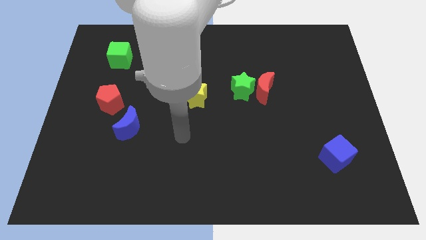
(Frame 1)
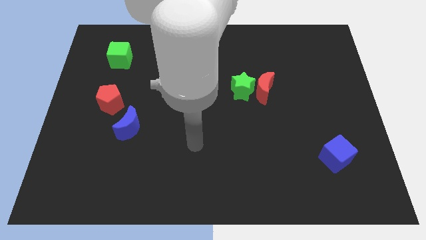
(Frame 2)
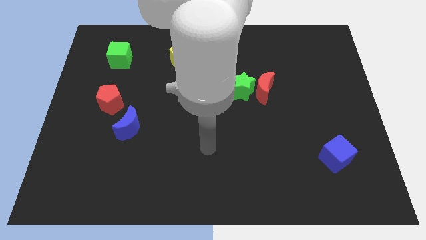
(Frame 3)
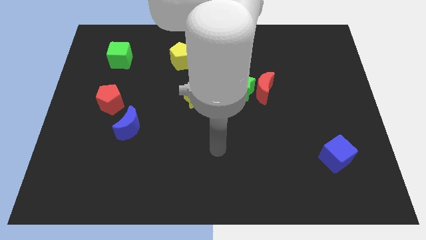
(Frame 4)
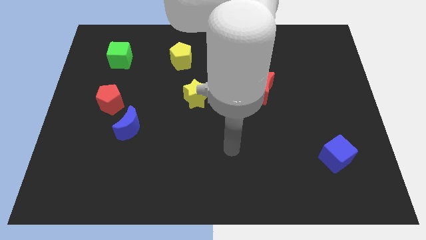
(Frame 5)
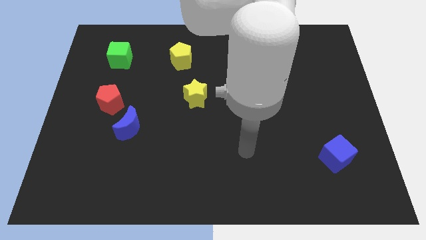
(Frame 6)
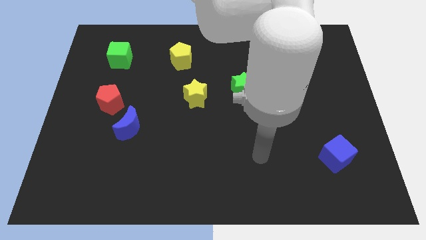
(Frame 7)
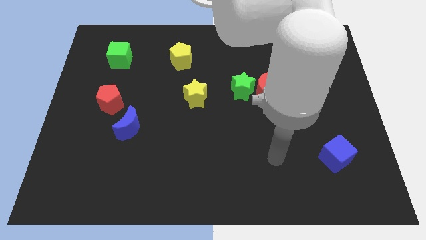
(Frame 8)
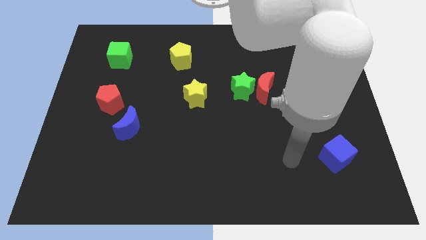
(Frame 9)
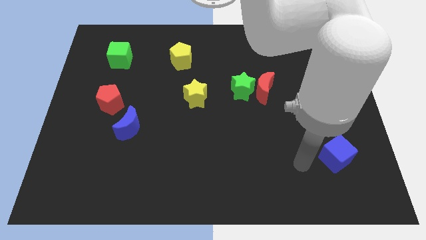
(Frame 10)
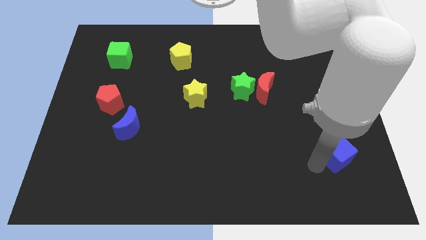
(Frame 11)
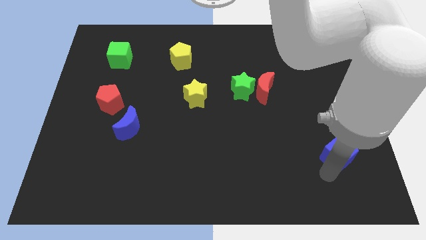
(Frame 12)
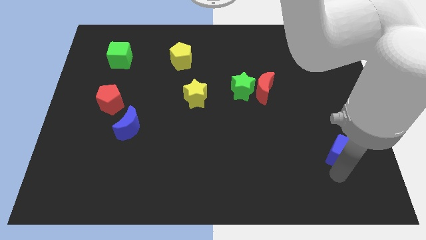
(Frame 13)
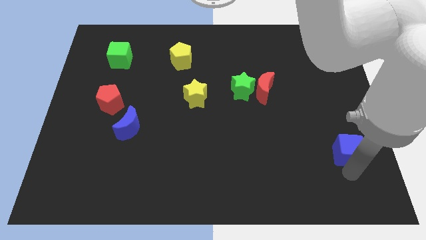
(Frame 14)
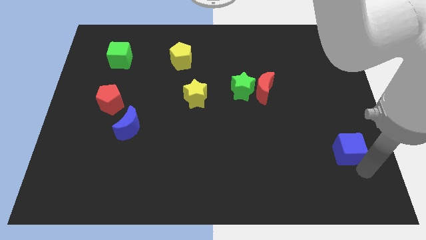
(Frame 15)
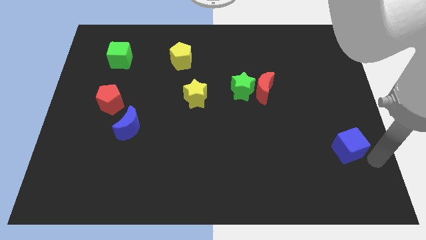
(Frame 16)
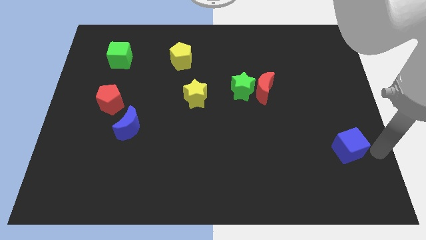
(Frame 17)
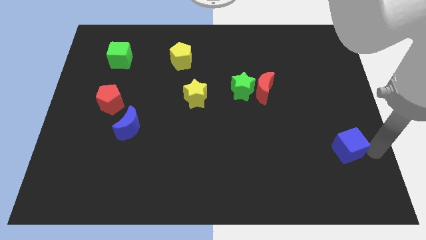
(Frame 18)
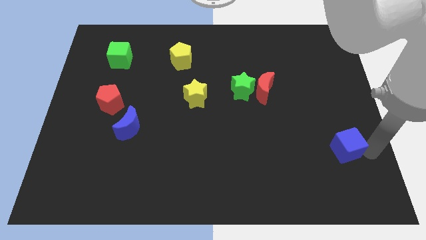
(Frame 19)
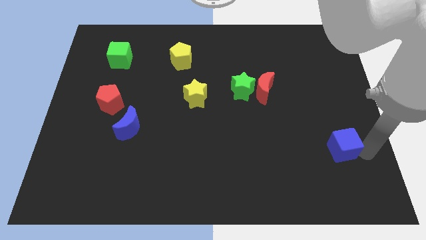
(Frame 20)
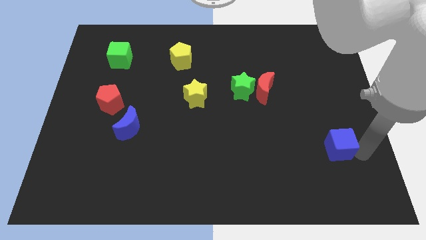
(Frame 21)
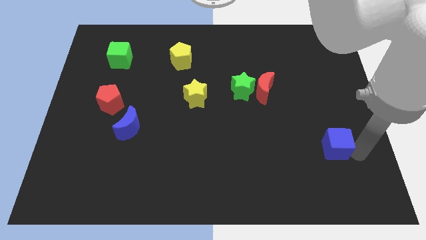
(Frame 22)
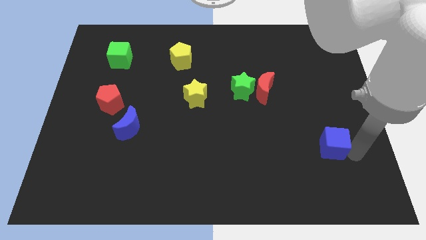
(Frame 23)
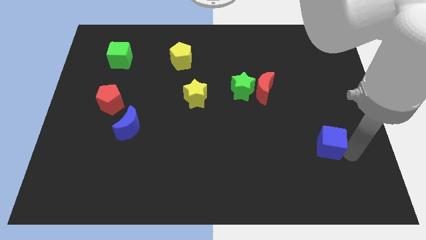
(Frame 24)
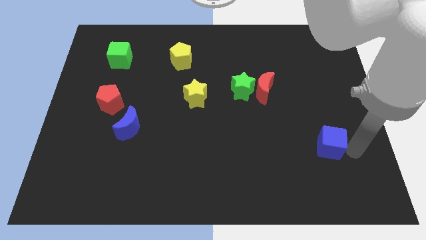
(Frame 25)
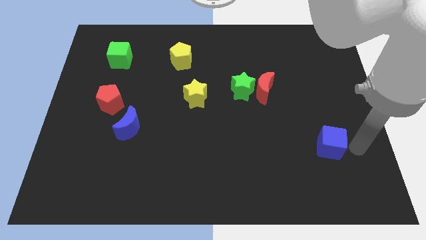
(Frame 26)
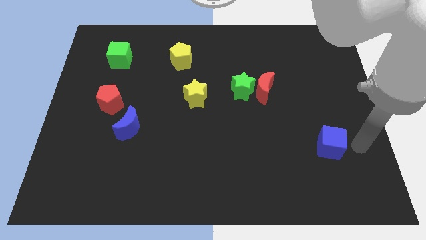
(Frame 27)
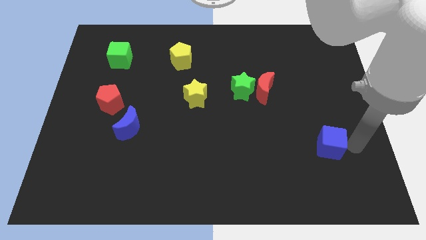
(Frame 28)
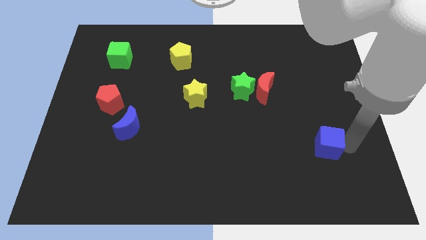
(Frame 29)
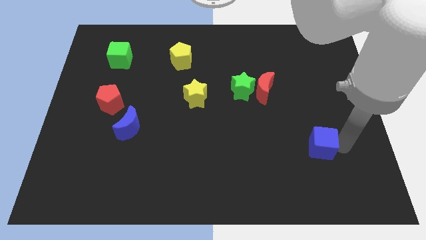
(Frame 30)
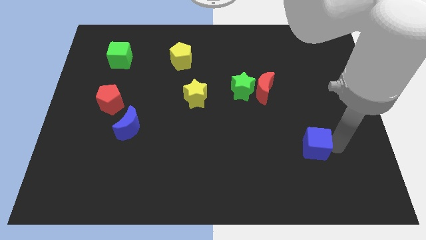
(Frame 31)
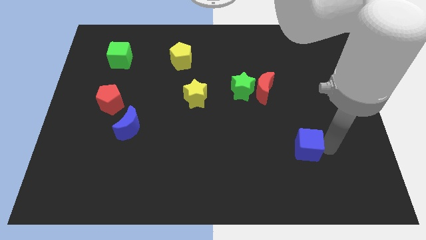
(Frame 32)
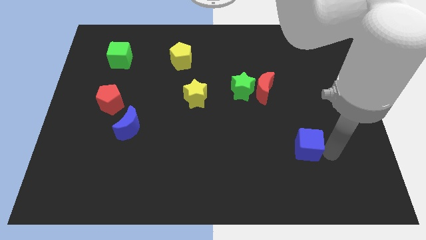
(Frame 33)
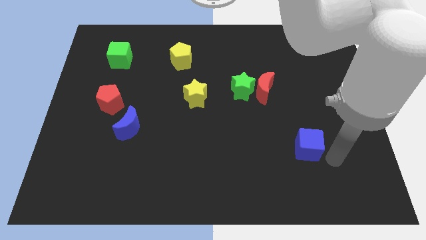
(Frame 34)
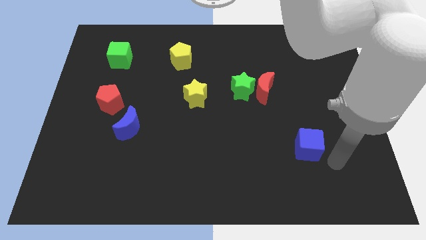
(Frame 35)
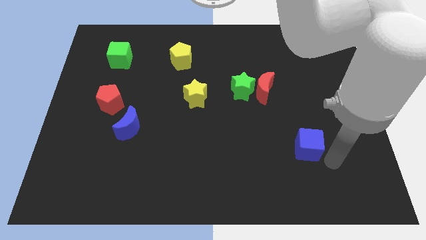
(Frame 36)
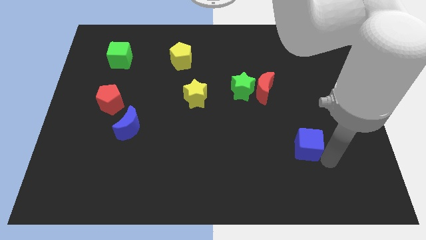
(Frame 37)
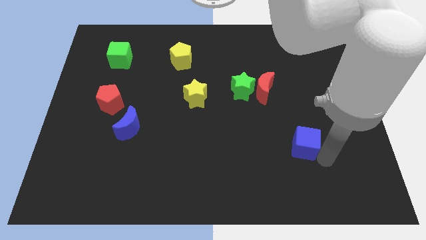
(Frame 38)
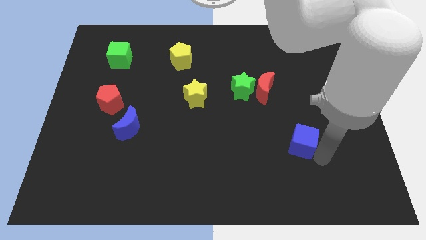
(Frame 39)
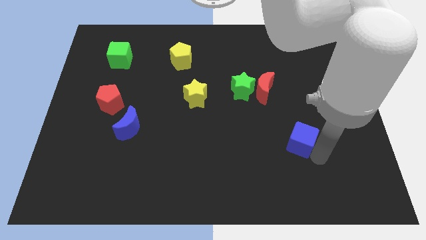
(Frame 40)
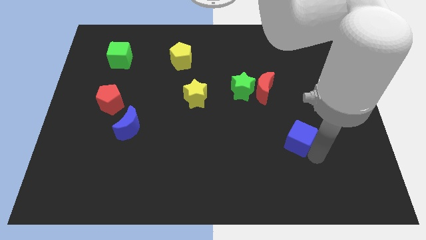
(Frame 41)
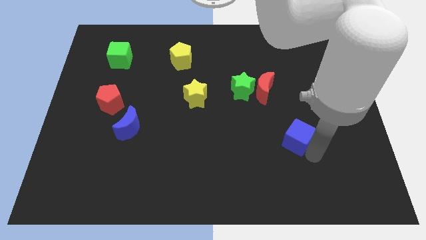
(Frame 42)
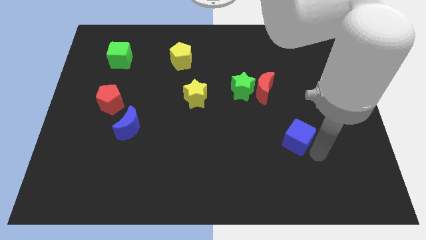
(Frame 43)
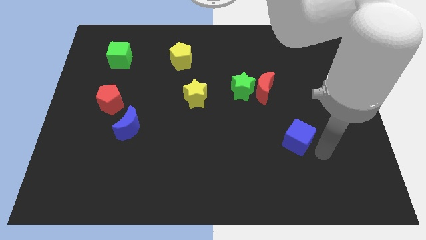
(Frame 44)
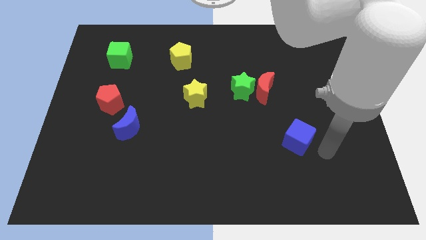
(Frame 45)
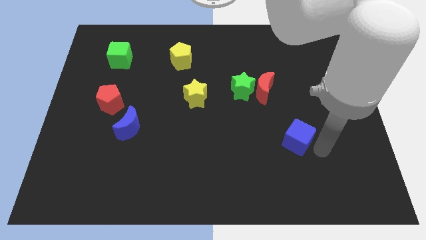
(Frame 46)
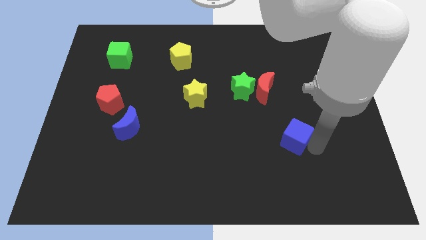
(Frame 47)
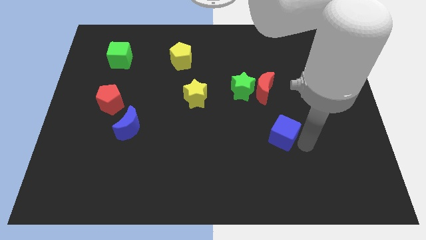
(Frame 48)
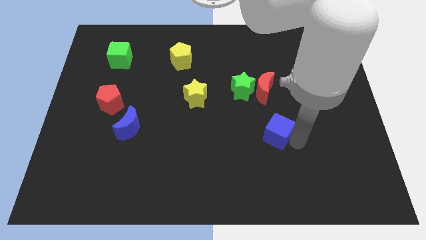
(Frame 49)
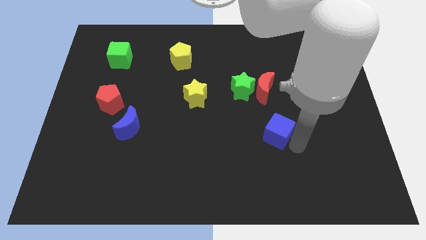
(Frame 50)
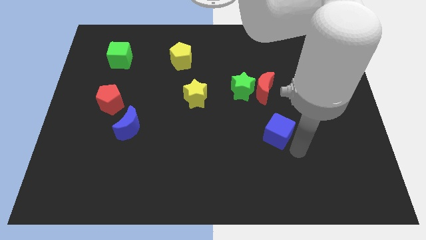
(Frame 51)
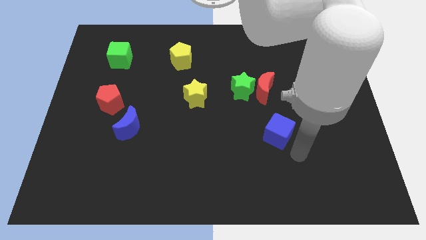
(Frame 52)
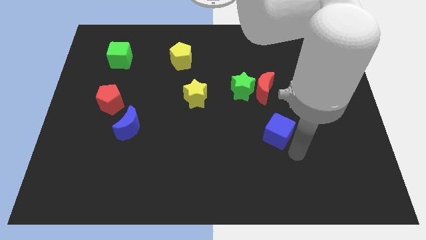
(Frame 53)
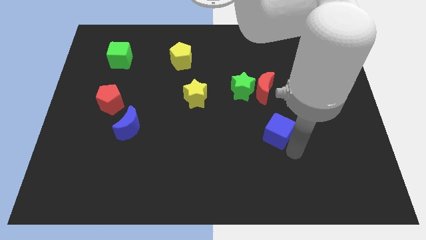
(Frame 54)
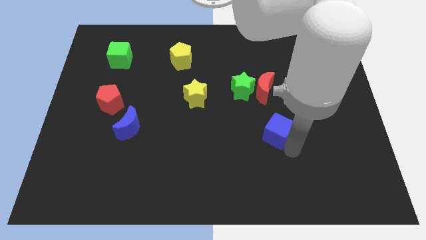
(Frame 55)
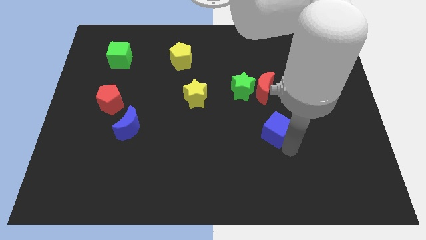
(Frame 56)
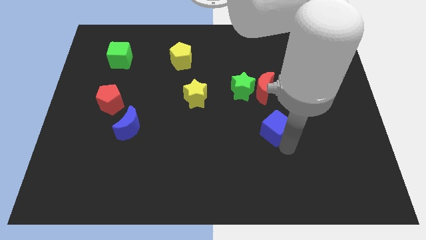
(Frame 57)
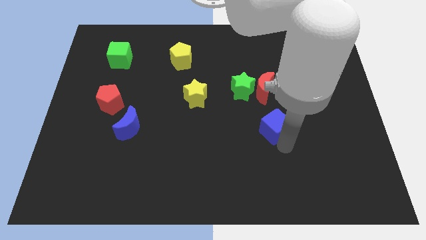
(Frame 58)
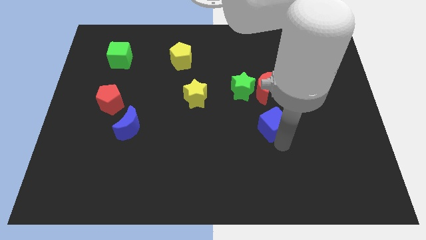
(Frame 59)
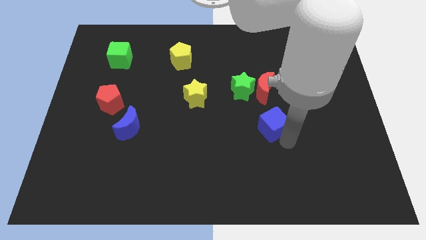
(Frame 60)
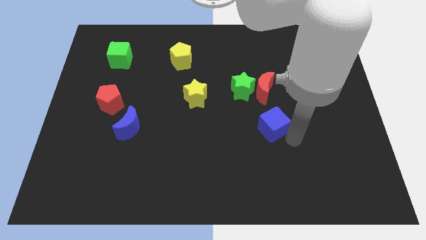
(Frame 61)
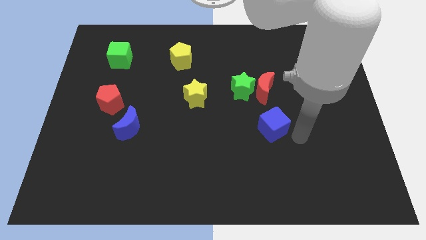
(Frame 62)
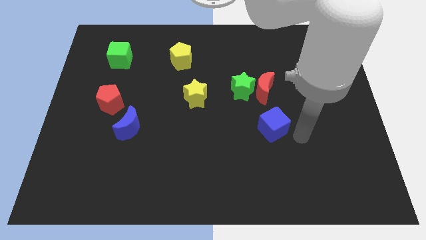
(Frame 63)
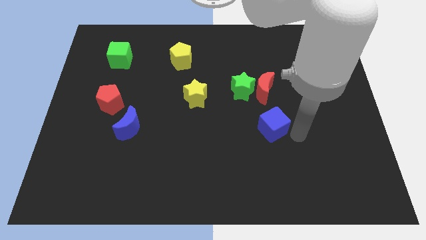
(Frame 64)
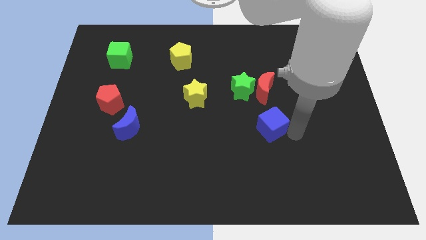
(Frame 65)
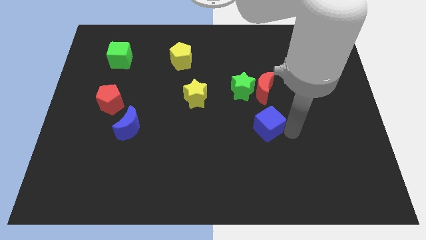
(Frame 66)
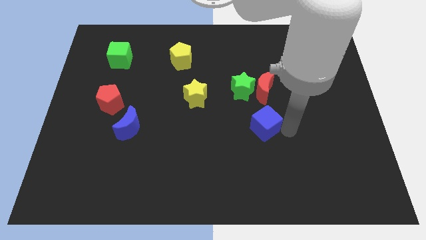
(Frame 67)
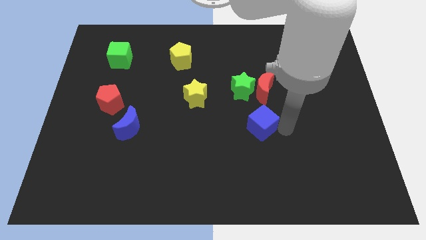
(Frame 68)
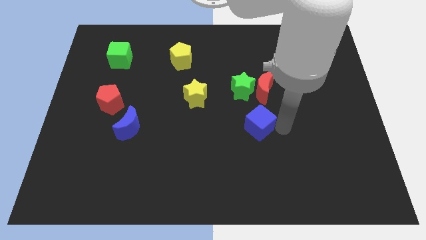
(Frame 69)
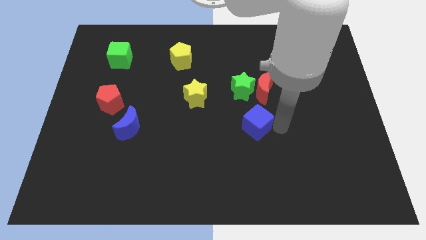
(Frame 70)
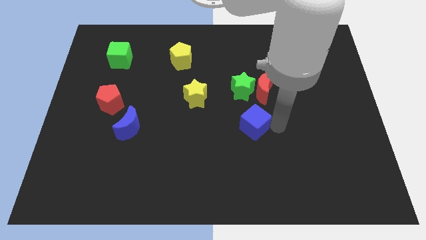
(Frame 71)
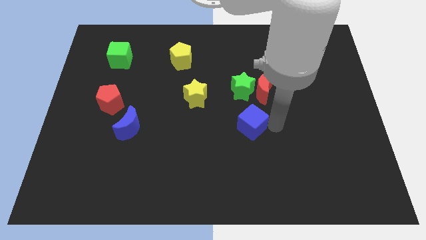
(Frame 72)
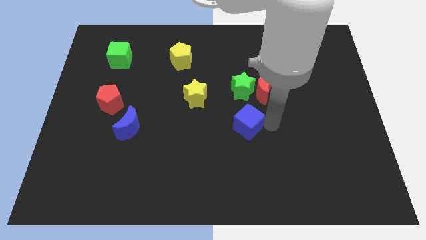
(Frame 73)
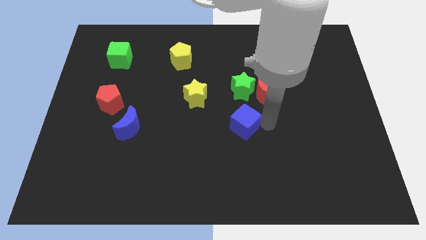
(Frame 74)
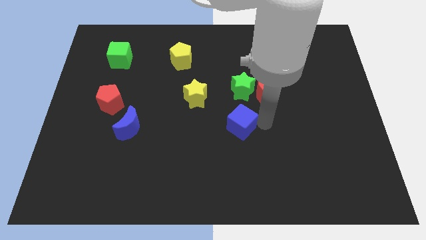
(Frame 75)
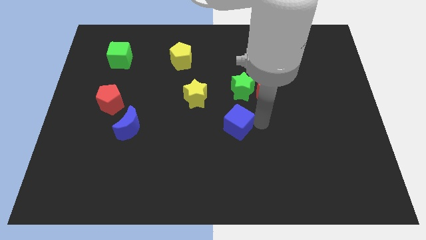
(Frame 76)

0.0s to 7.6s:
slide the blue cube diagonally down and to the right of the yellow star

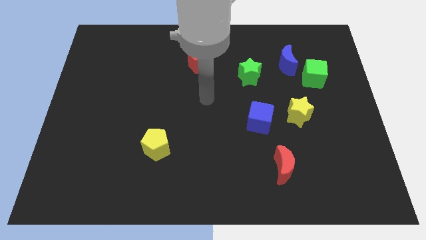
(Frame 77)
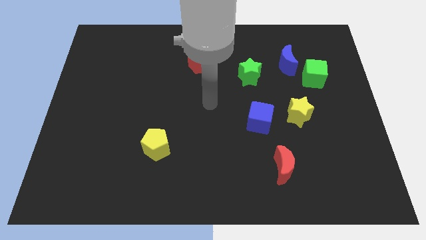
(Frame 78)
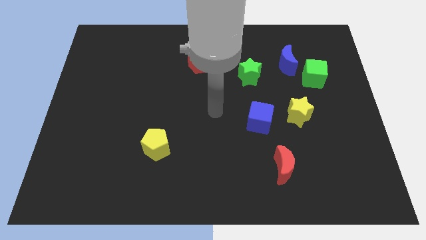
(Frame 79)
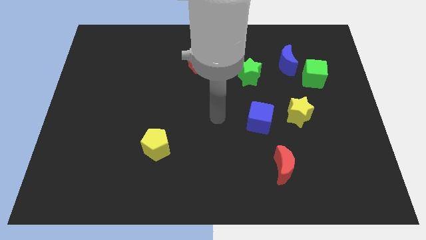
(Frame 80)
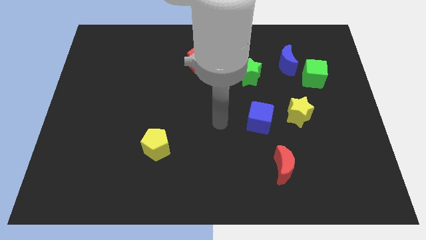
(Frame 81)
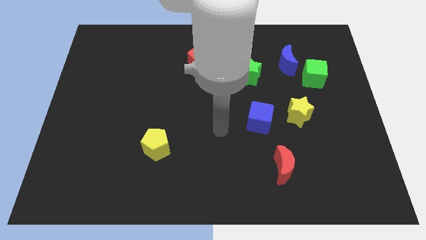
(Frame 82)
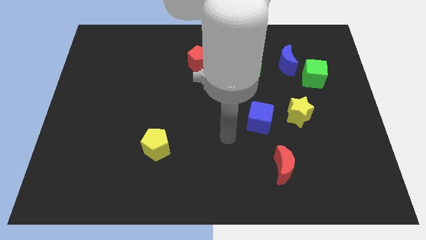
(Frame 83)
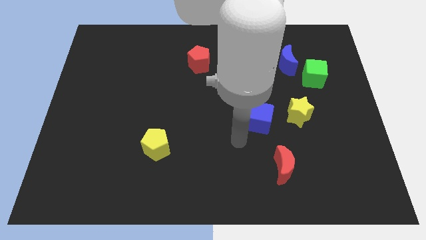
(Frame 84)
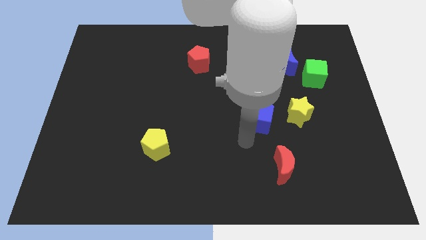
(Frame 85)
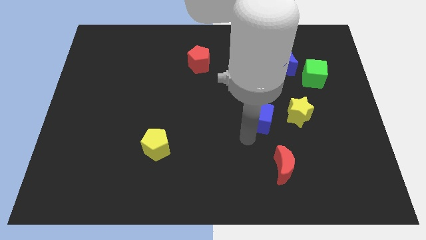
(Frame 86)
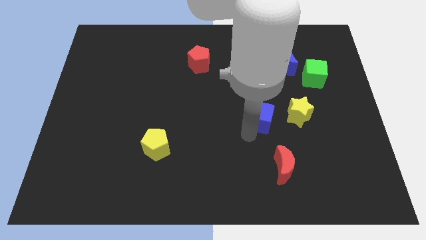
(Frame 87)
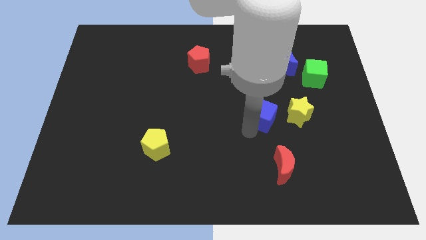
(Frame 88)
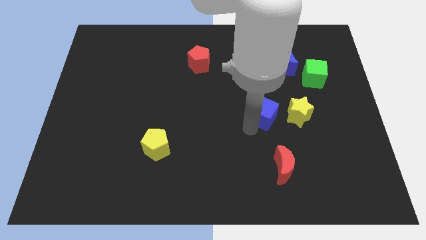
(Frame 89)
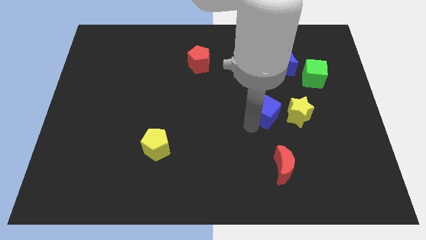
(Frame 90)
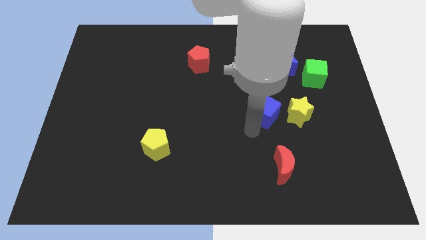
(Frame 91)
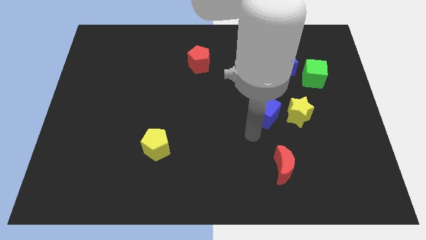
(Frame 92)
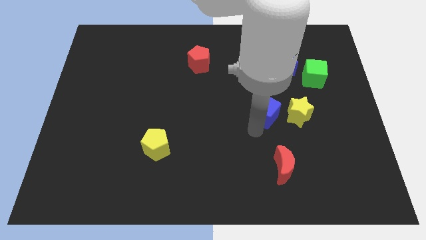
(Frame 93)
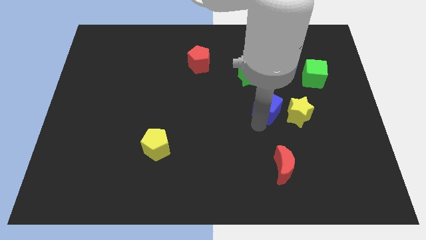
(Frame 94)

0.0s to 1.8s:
push the blue cube to the top left of the yellow star
